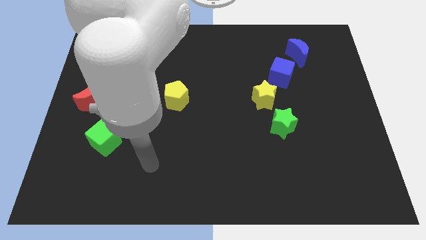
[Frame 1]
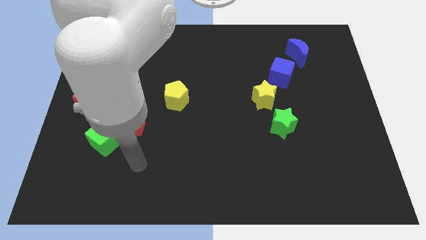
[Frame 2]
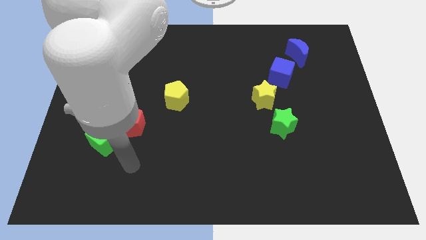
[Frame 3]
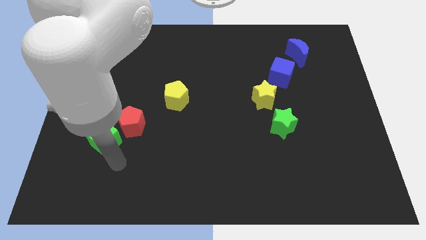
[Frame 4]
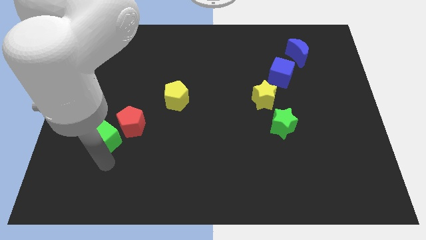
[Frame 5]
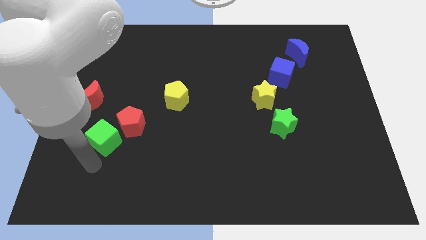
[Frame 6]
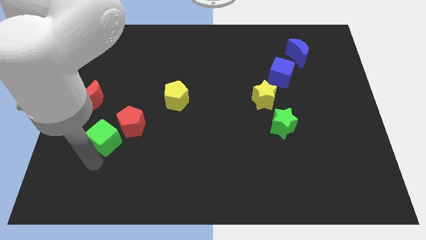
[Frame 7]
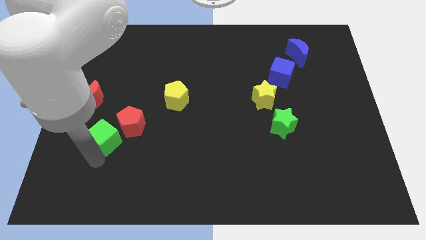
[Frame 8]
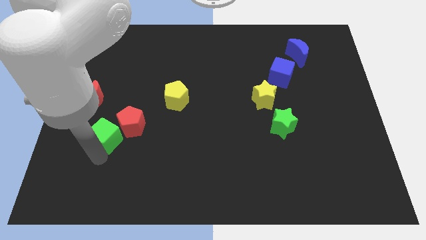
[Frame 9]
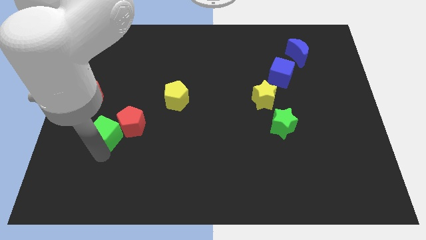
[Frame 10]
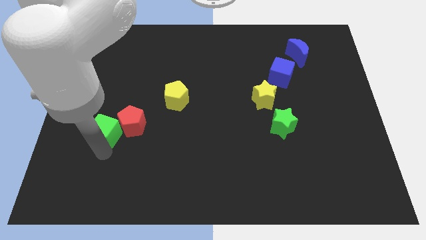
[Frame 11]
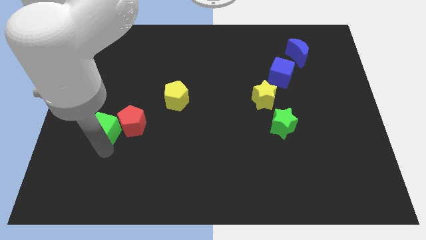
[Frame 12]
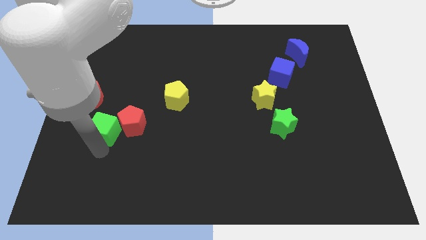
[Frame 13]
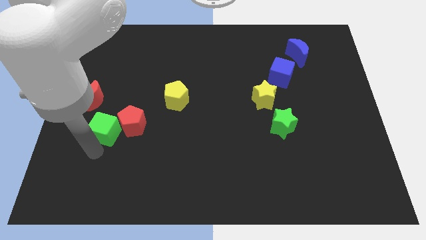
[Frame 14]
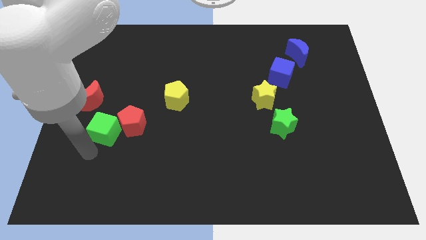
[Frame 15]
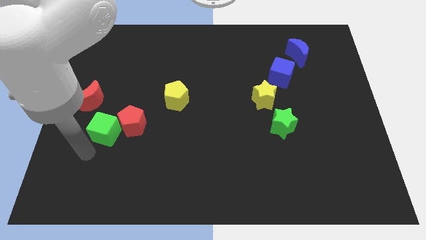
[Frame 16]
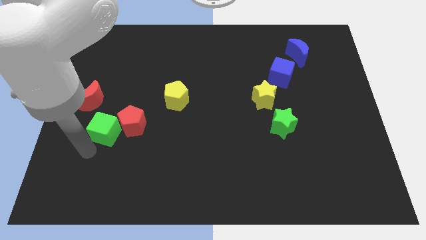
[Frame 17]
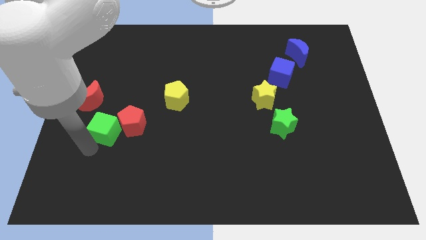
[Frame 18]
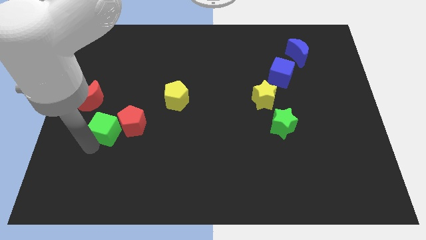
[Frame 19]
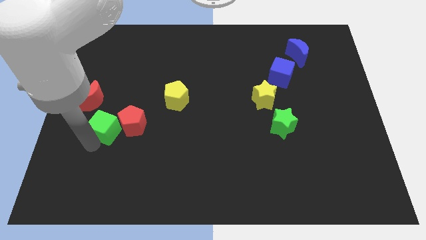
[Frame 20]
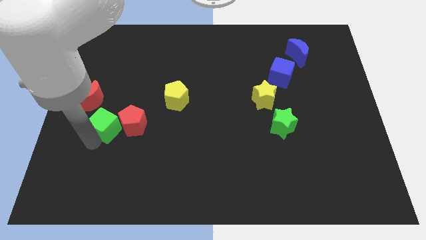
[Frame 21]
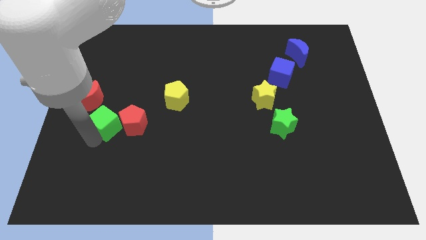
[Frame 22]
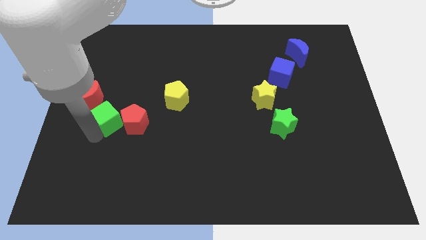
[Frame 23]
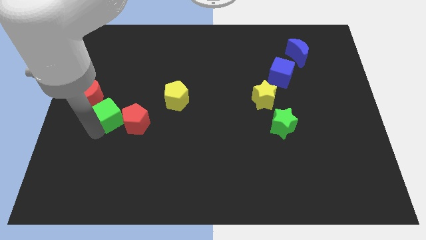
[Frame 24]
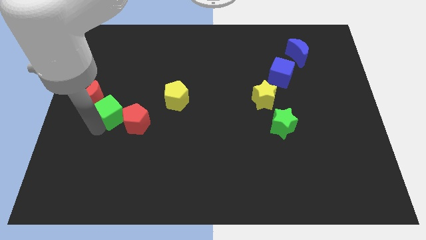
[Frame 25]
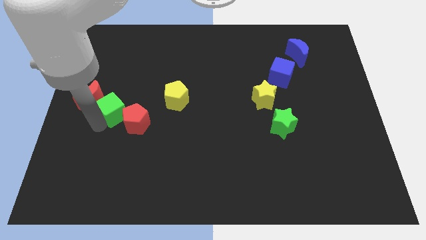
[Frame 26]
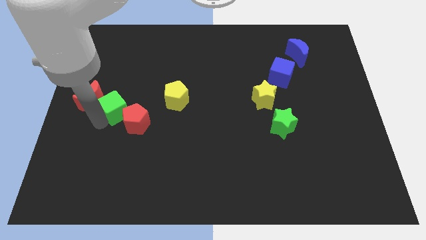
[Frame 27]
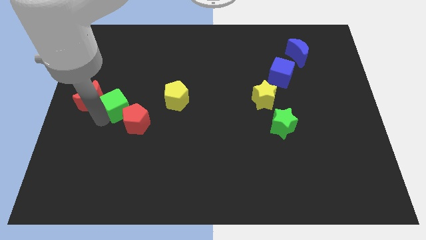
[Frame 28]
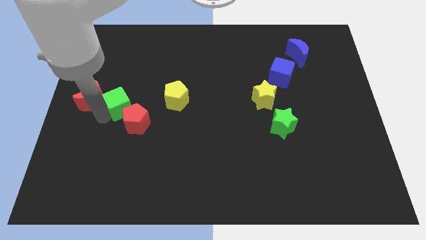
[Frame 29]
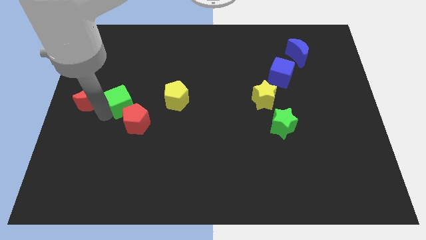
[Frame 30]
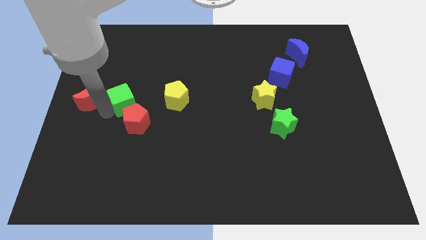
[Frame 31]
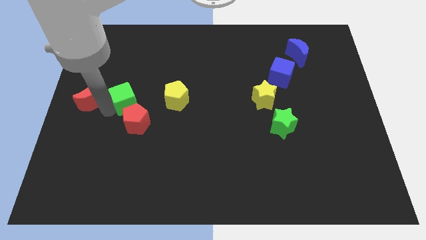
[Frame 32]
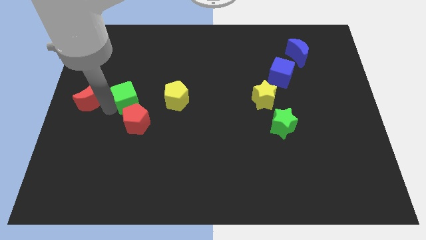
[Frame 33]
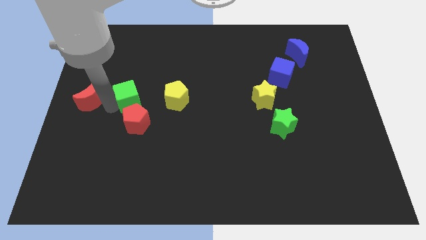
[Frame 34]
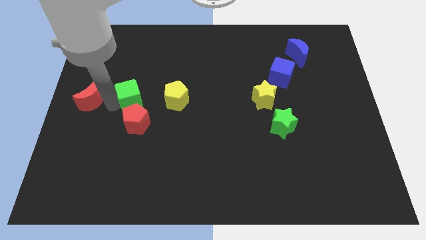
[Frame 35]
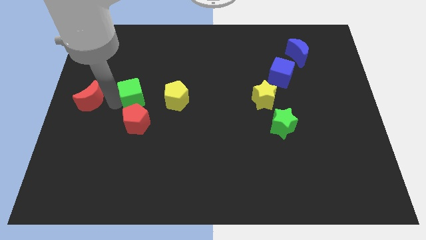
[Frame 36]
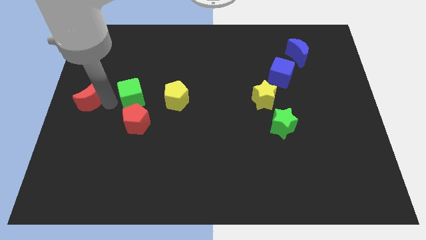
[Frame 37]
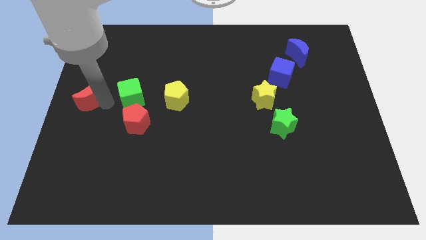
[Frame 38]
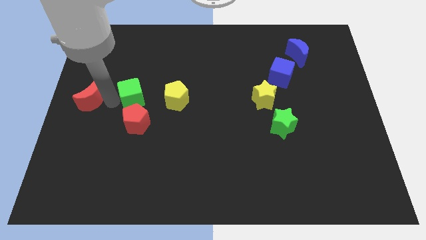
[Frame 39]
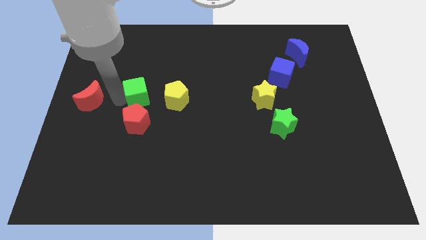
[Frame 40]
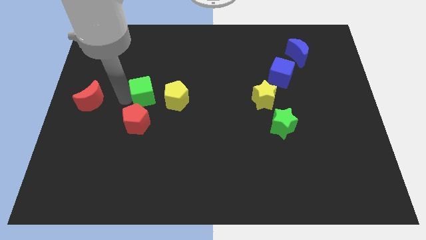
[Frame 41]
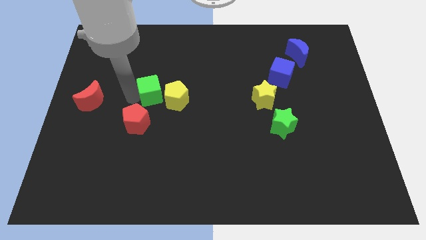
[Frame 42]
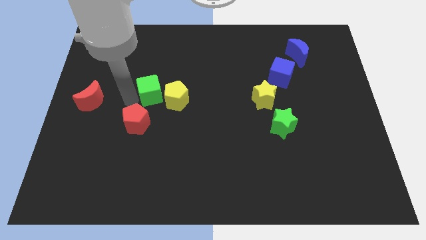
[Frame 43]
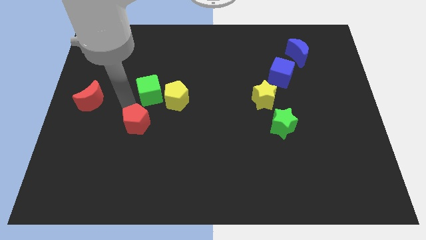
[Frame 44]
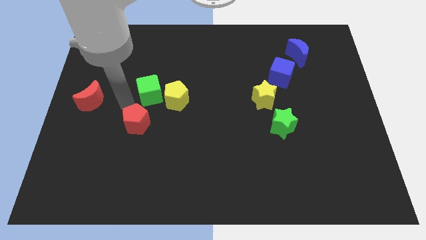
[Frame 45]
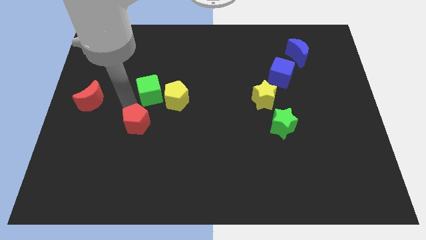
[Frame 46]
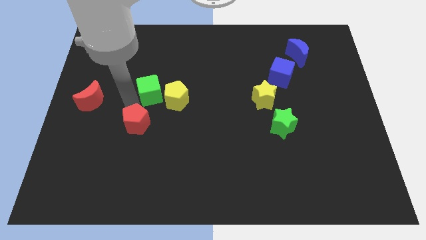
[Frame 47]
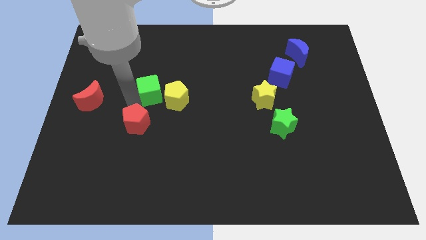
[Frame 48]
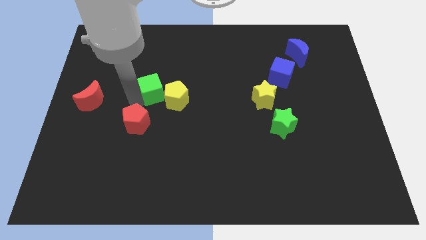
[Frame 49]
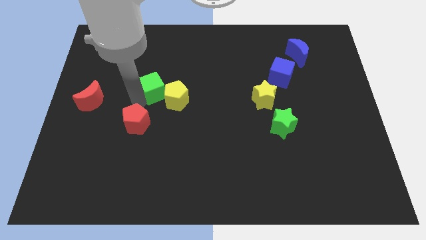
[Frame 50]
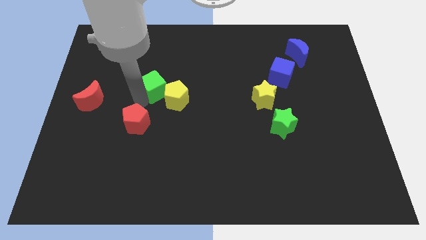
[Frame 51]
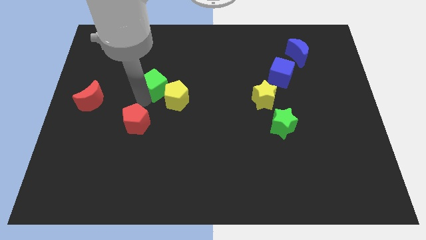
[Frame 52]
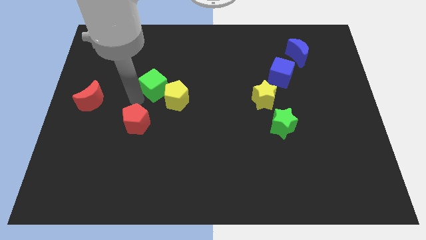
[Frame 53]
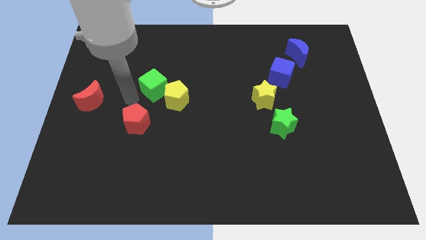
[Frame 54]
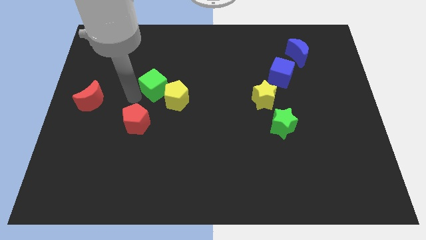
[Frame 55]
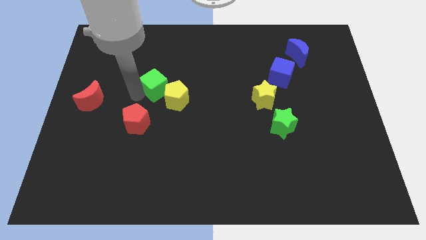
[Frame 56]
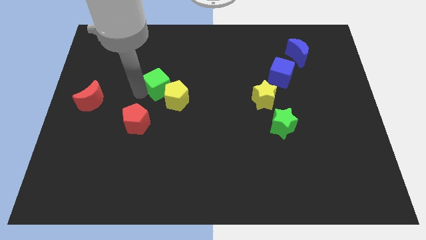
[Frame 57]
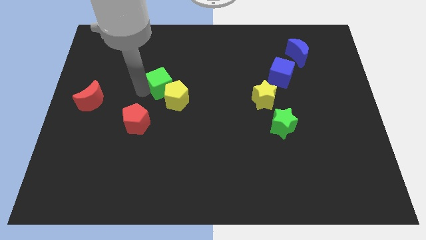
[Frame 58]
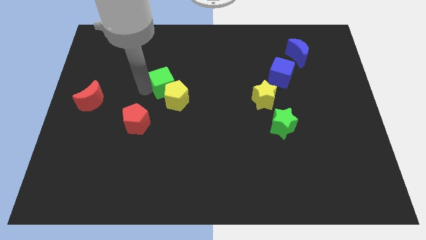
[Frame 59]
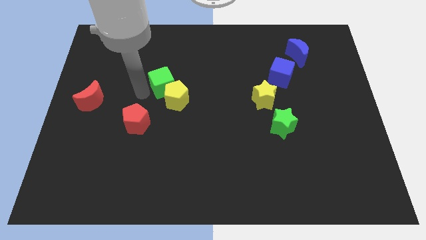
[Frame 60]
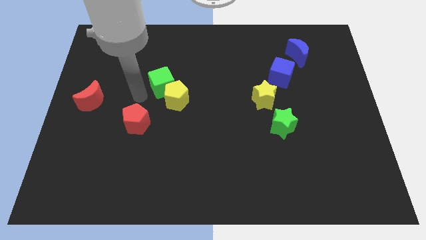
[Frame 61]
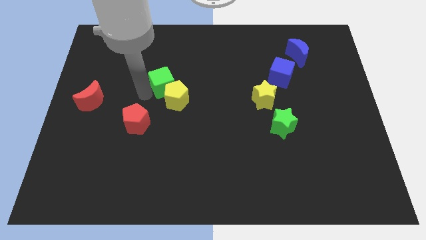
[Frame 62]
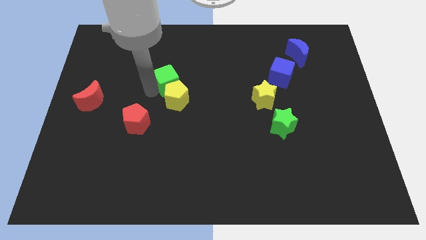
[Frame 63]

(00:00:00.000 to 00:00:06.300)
move the green cube diagonally up and right

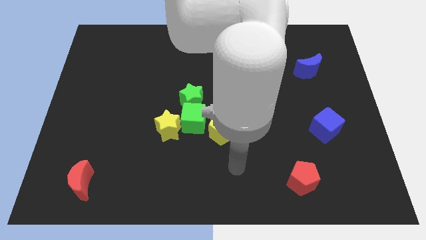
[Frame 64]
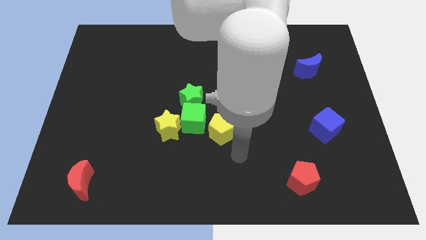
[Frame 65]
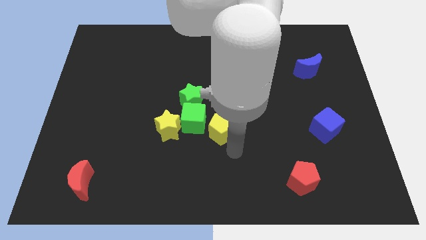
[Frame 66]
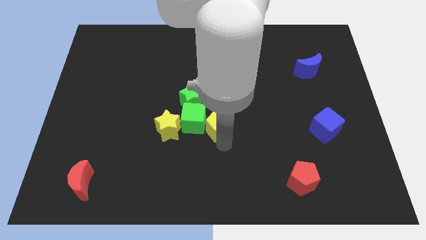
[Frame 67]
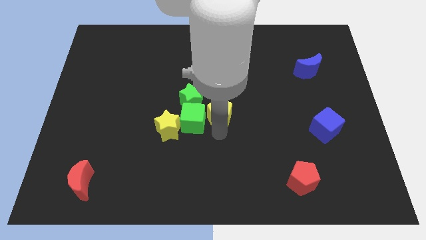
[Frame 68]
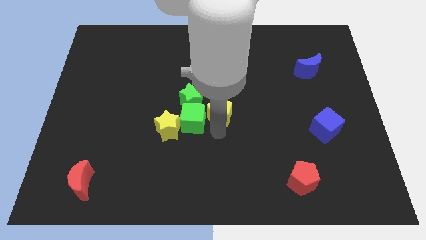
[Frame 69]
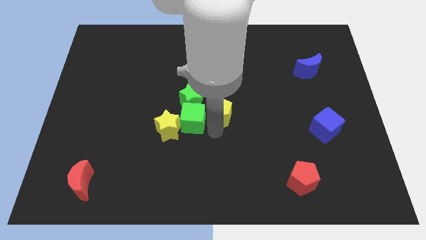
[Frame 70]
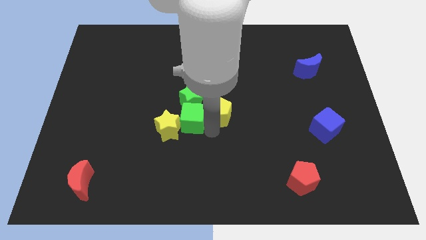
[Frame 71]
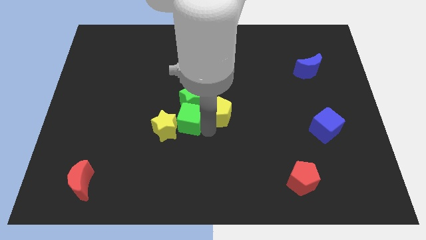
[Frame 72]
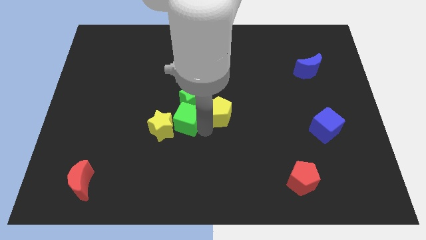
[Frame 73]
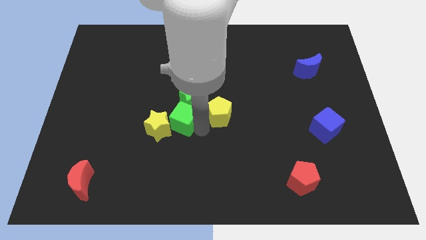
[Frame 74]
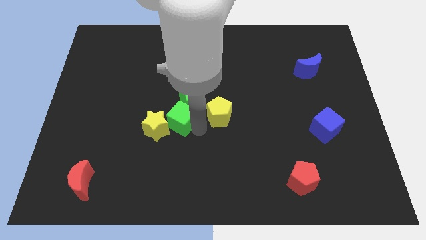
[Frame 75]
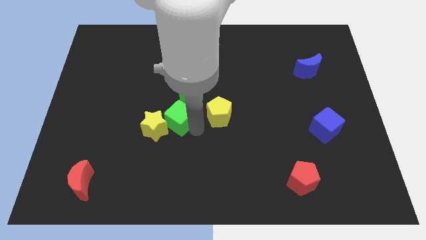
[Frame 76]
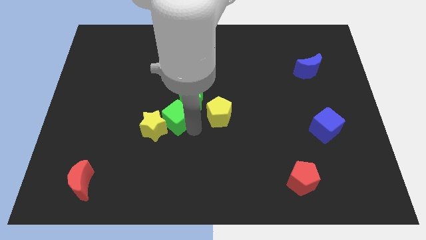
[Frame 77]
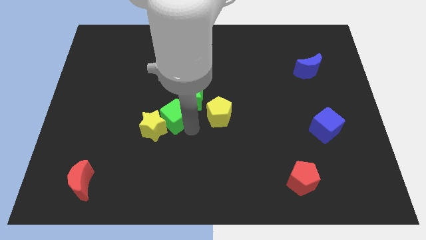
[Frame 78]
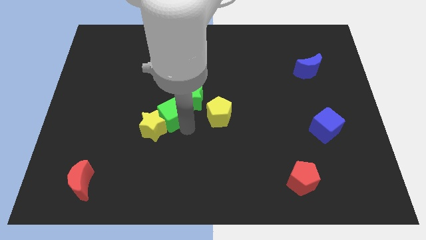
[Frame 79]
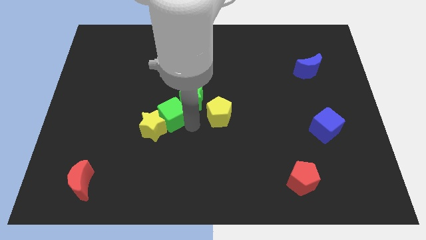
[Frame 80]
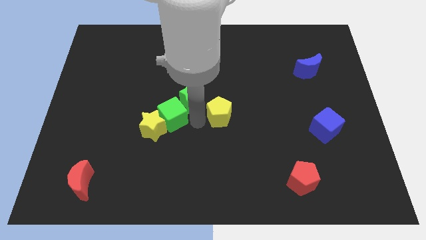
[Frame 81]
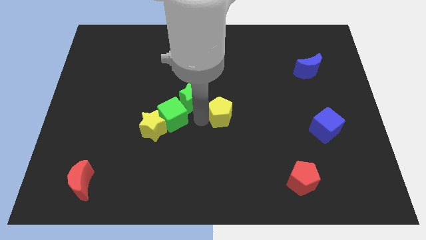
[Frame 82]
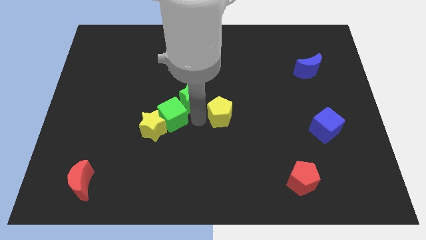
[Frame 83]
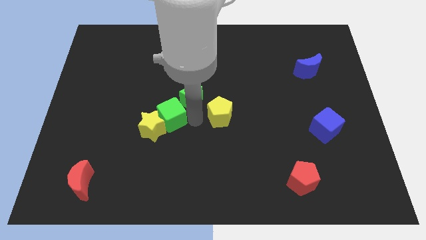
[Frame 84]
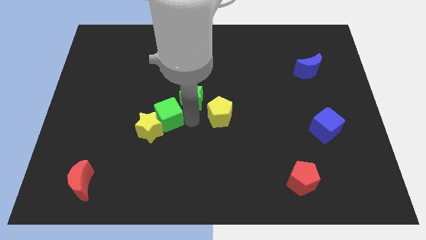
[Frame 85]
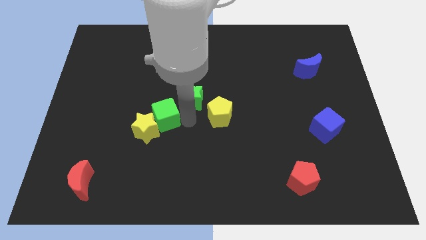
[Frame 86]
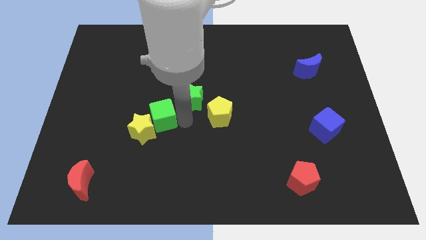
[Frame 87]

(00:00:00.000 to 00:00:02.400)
slightly push the green cube to the left
